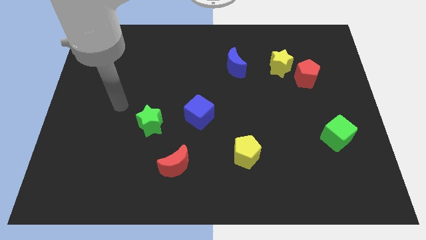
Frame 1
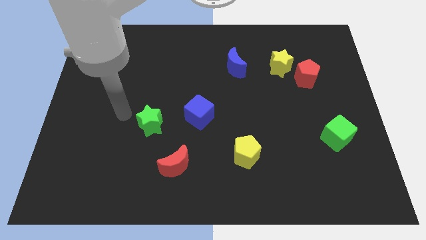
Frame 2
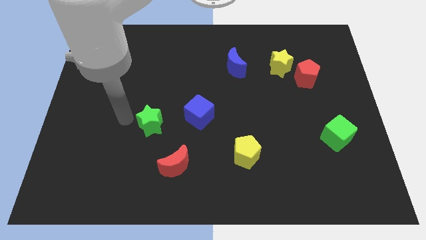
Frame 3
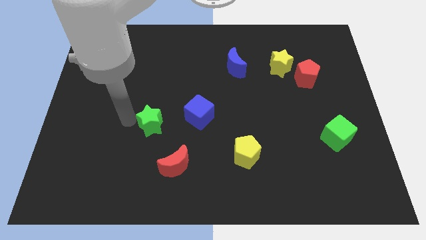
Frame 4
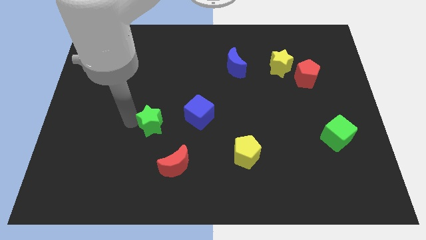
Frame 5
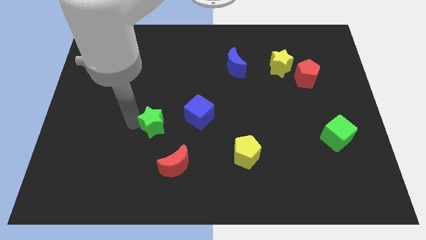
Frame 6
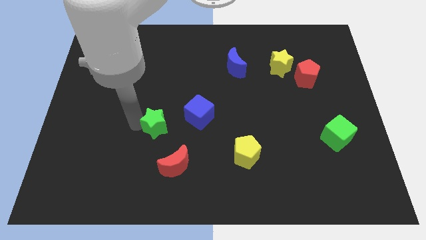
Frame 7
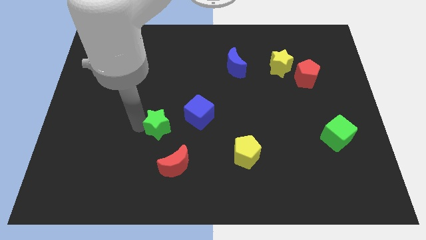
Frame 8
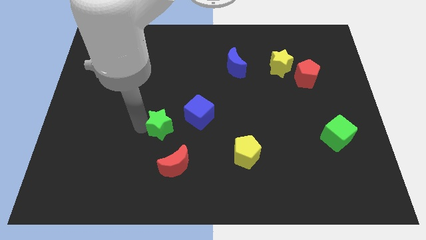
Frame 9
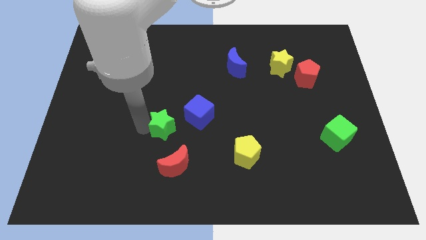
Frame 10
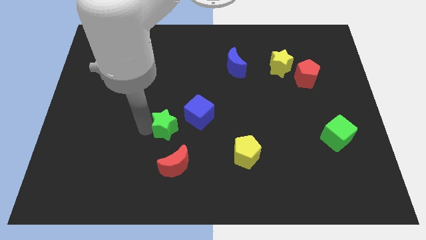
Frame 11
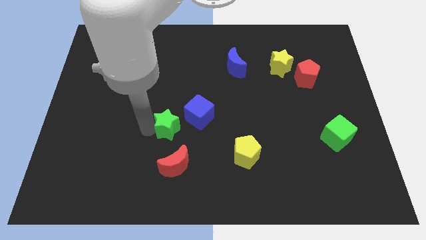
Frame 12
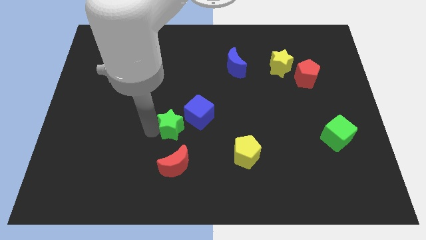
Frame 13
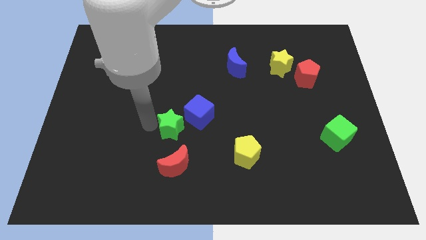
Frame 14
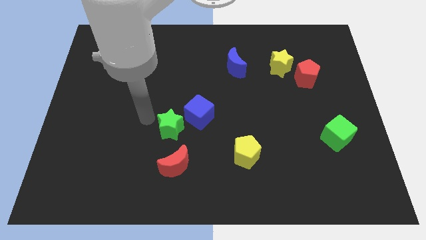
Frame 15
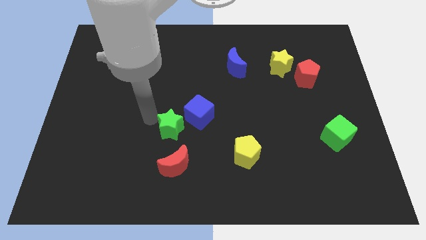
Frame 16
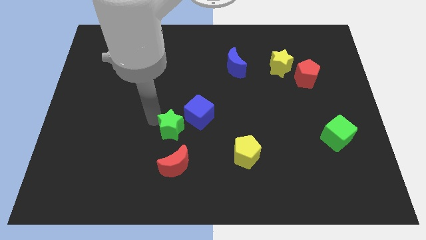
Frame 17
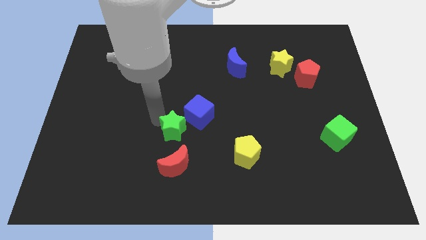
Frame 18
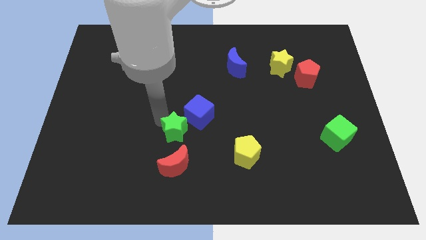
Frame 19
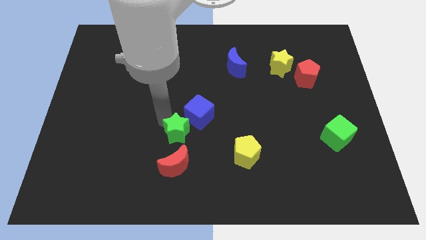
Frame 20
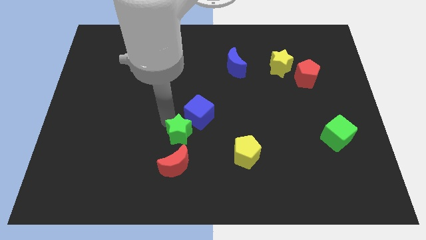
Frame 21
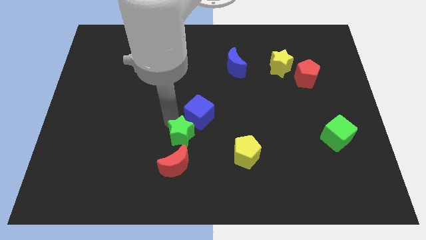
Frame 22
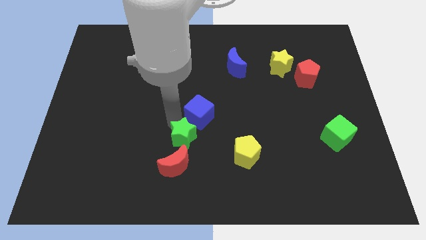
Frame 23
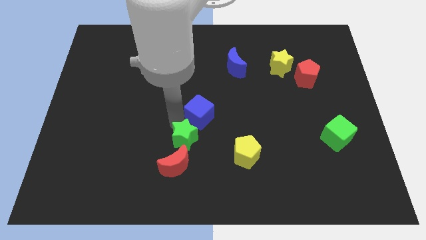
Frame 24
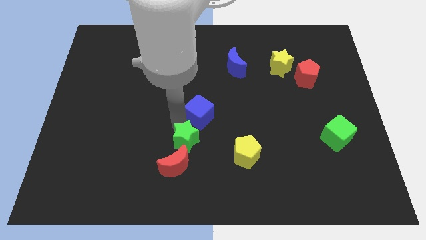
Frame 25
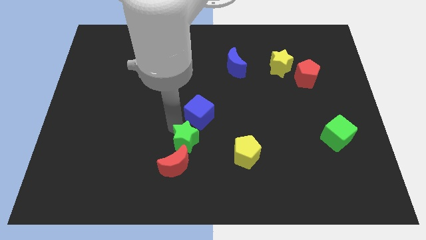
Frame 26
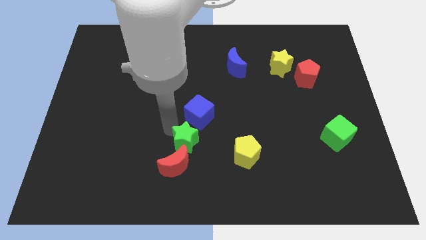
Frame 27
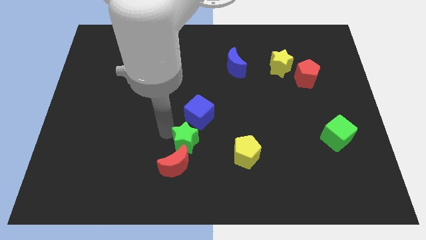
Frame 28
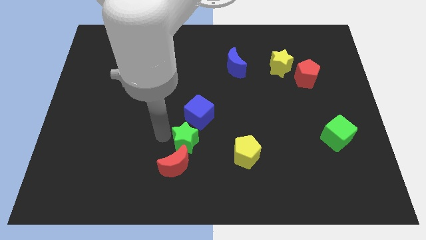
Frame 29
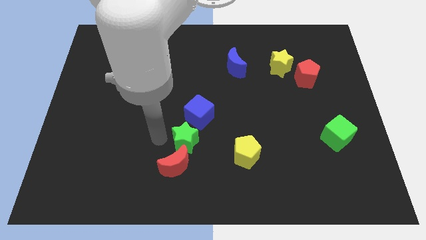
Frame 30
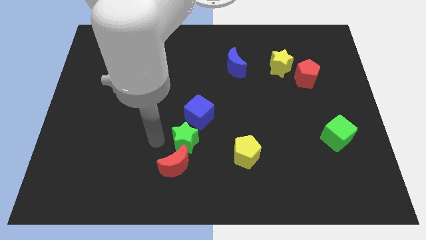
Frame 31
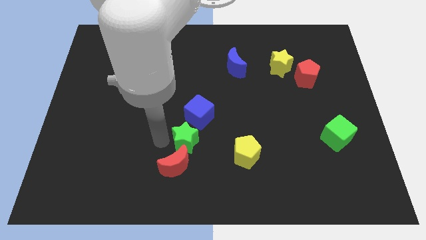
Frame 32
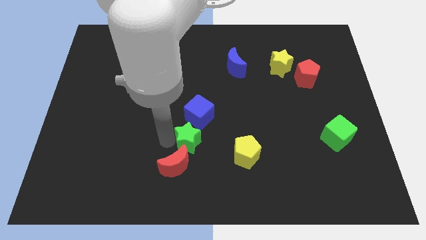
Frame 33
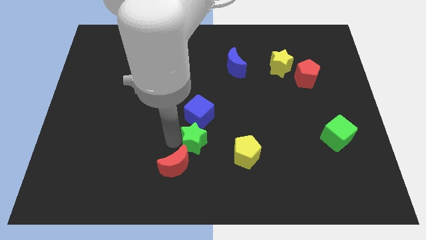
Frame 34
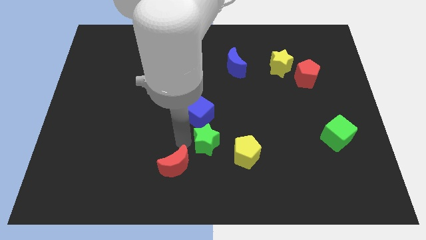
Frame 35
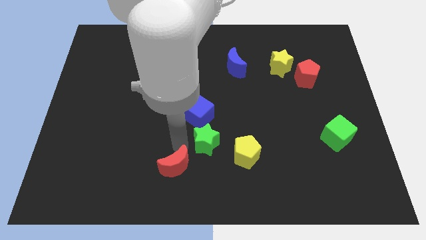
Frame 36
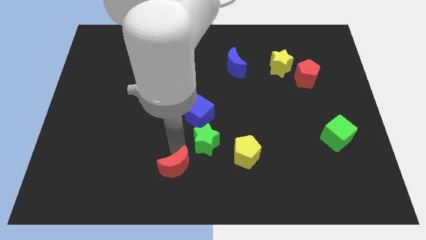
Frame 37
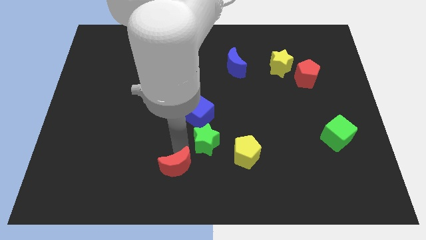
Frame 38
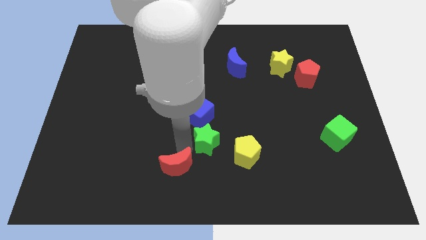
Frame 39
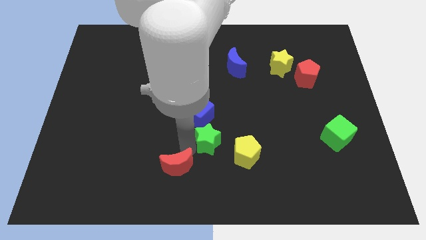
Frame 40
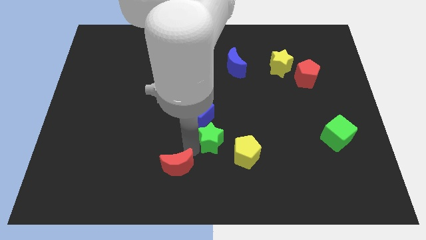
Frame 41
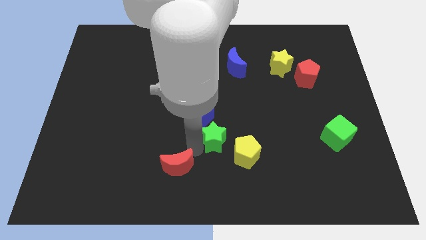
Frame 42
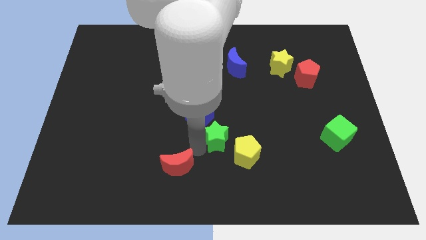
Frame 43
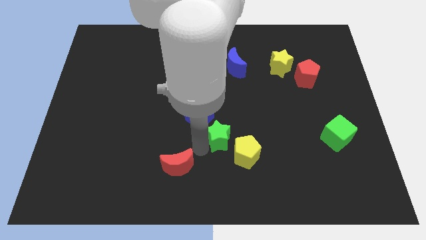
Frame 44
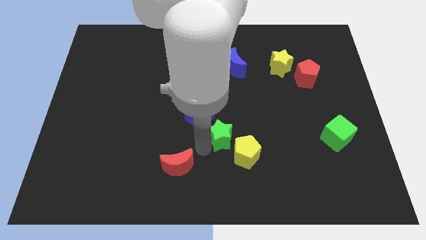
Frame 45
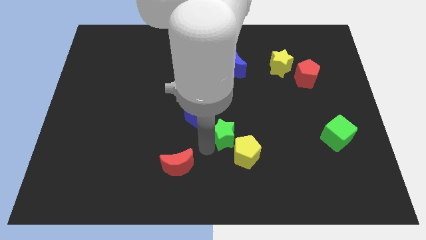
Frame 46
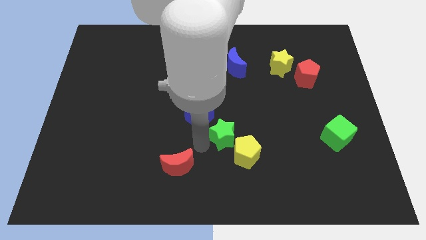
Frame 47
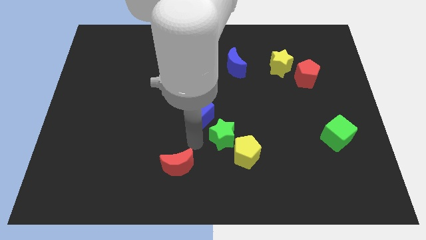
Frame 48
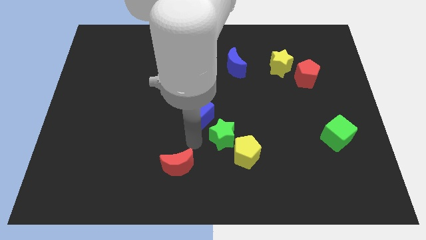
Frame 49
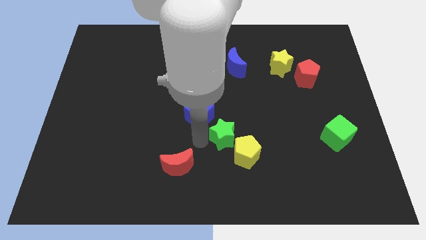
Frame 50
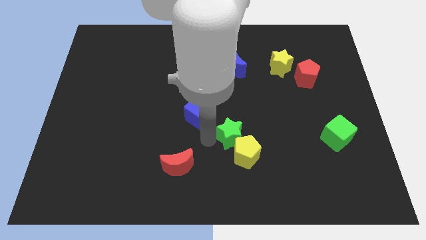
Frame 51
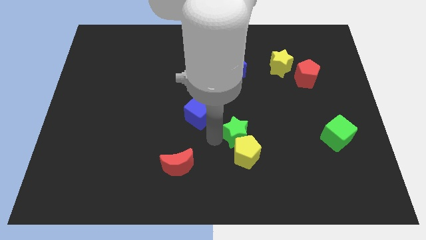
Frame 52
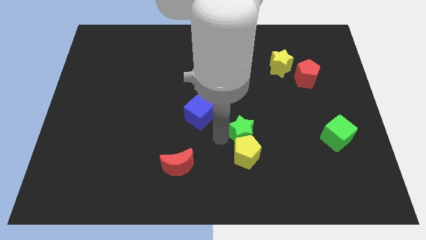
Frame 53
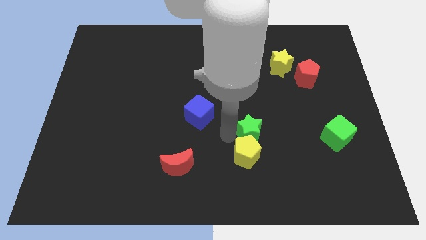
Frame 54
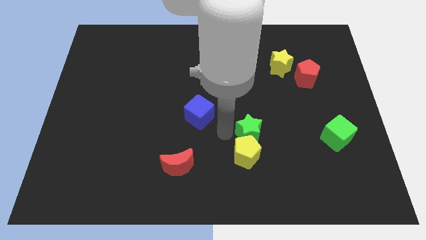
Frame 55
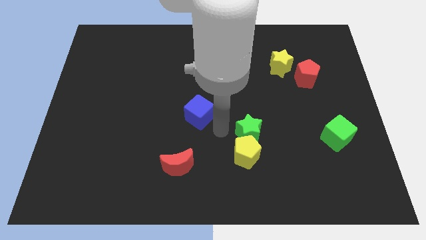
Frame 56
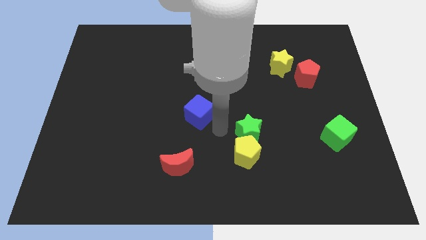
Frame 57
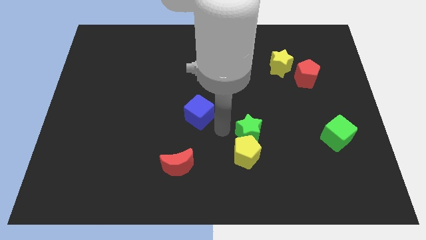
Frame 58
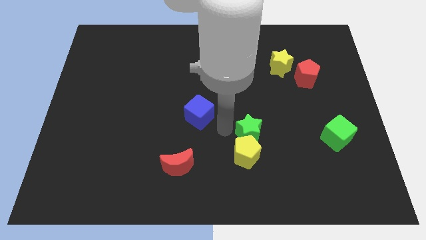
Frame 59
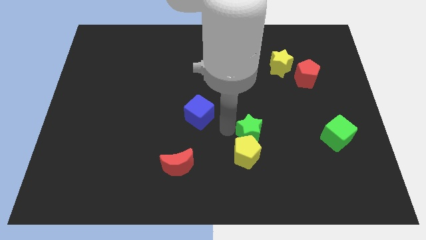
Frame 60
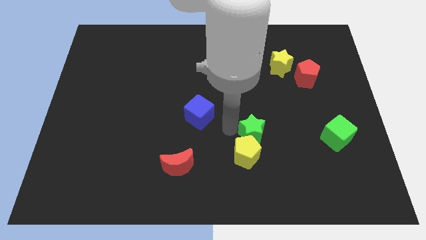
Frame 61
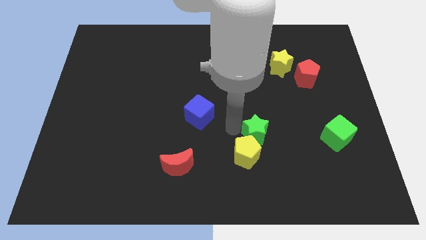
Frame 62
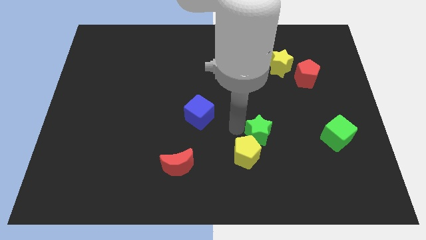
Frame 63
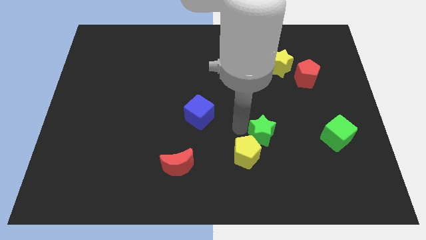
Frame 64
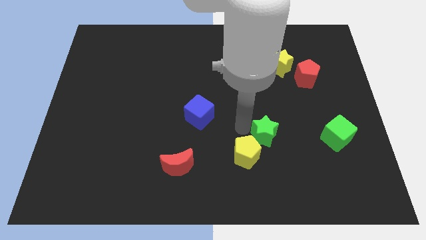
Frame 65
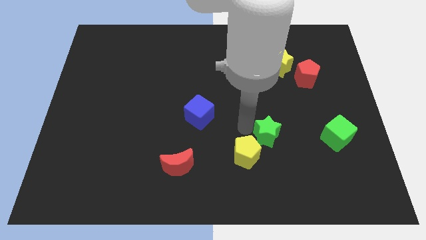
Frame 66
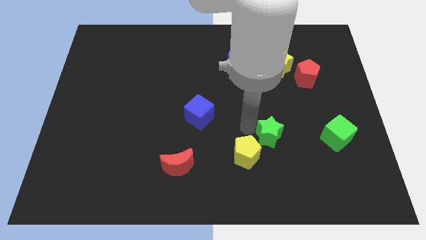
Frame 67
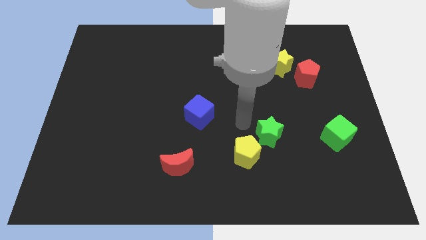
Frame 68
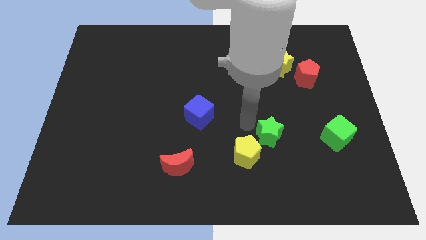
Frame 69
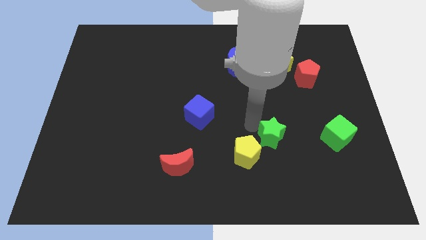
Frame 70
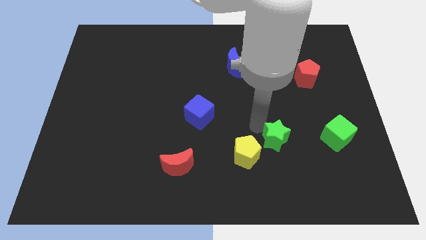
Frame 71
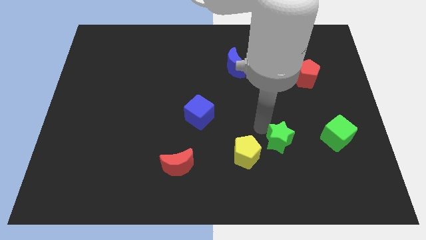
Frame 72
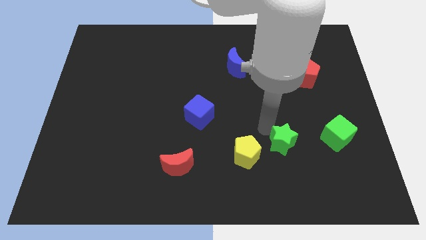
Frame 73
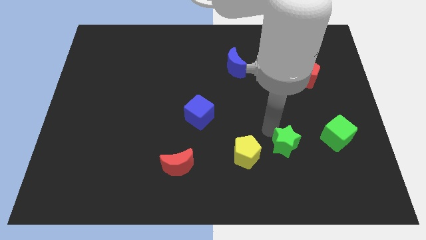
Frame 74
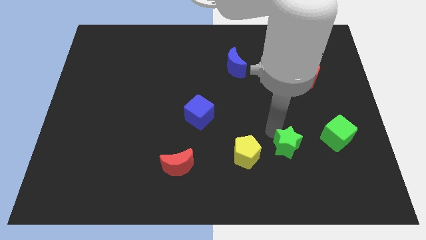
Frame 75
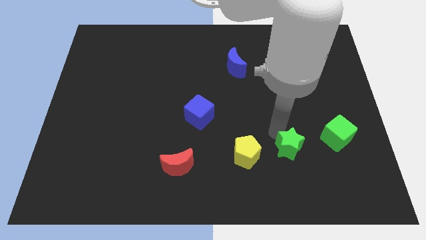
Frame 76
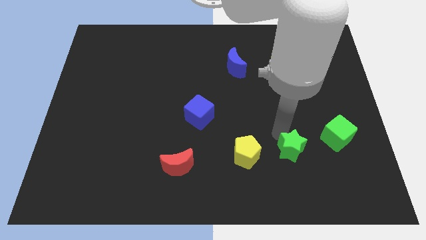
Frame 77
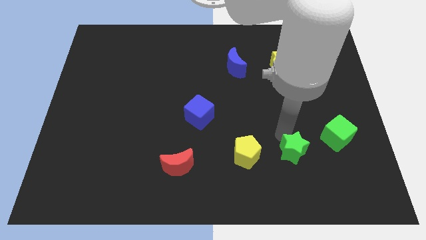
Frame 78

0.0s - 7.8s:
slide the green star to the bottom left of the green cube

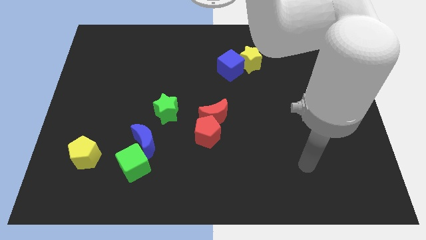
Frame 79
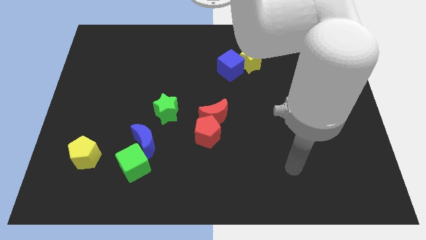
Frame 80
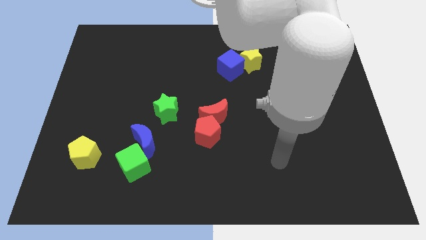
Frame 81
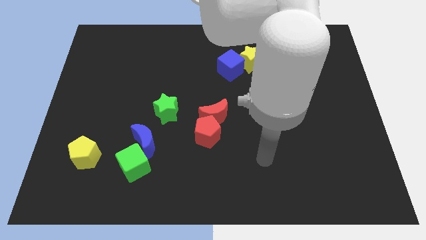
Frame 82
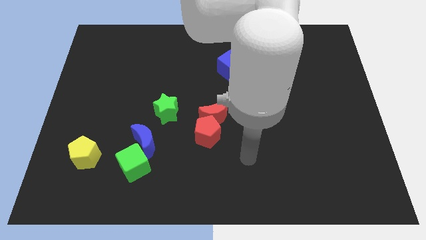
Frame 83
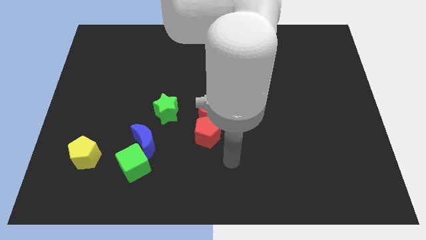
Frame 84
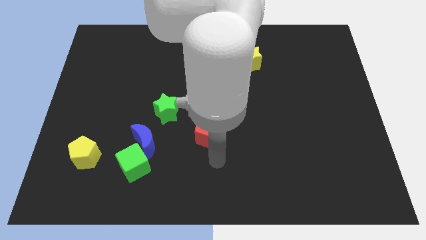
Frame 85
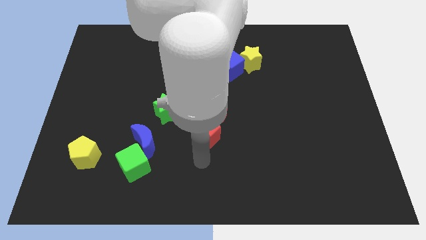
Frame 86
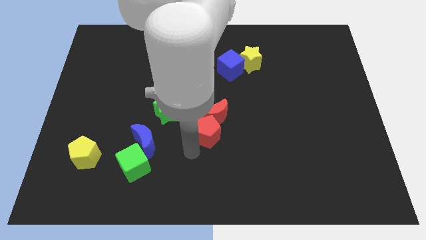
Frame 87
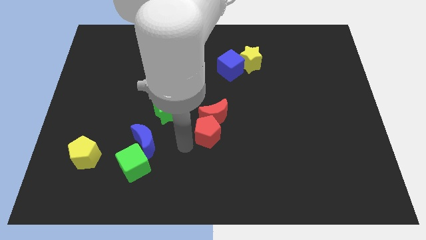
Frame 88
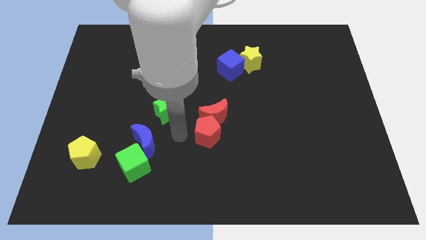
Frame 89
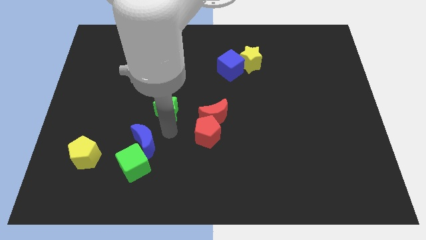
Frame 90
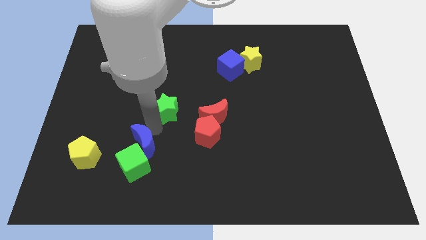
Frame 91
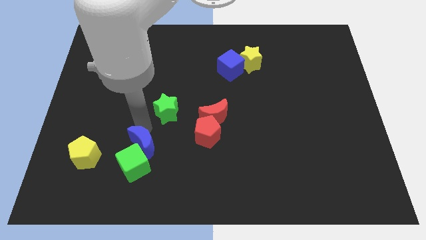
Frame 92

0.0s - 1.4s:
put the green cube diagonally down and to the right of the blue moon
